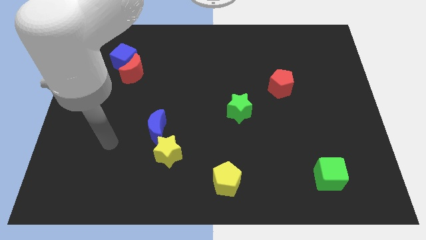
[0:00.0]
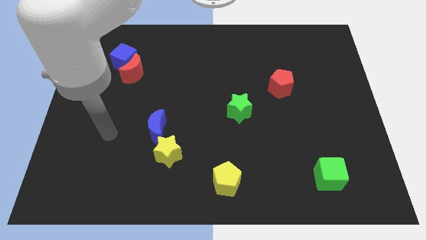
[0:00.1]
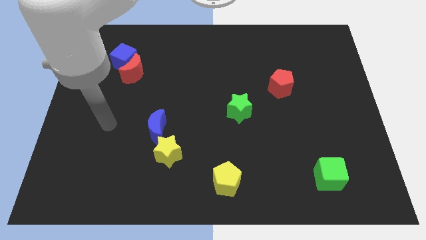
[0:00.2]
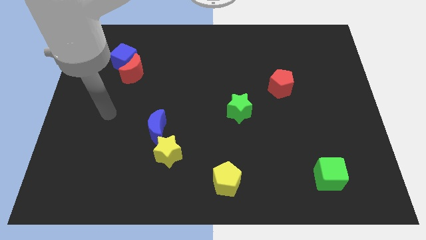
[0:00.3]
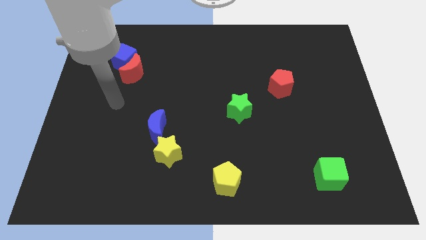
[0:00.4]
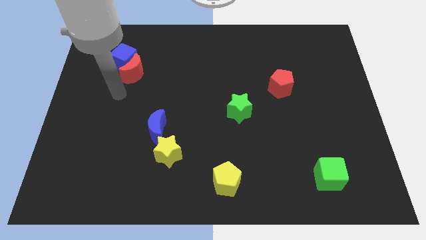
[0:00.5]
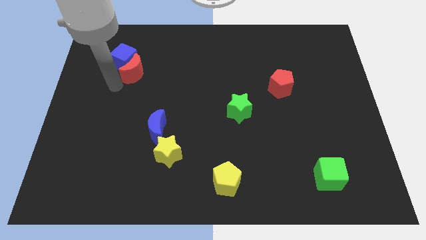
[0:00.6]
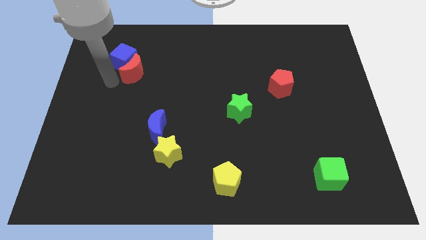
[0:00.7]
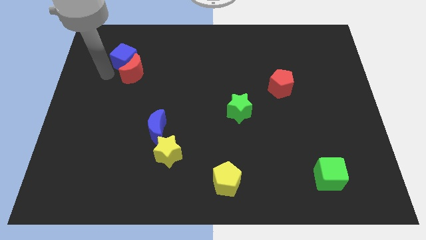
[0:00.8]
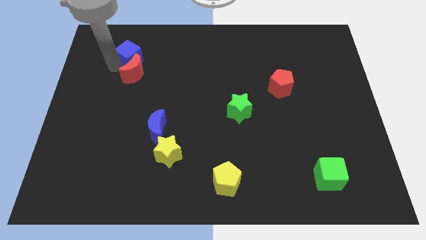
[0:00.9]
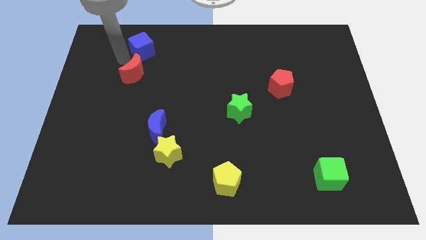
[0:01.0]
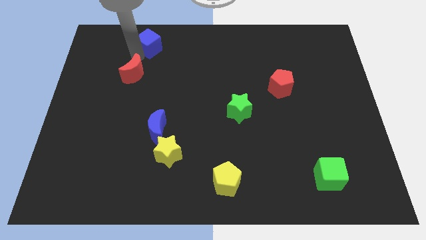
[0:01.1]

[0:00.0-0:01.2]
separate the red moon from the blue cube

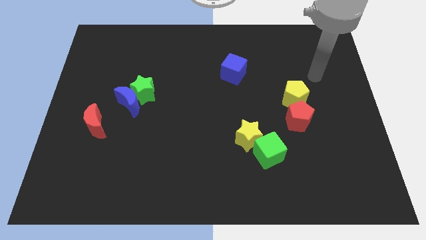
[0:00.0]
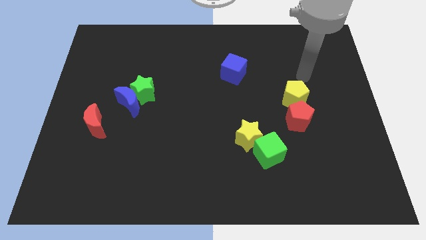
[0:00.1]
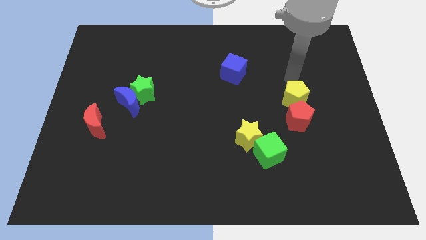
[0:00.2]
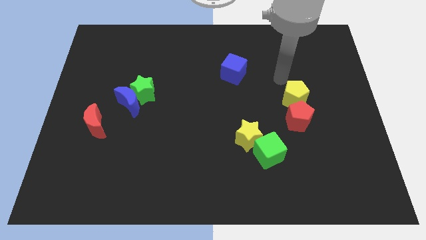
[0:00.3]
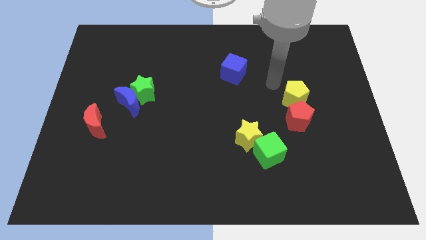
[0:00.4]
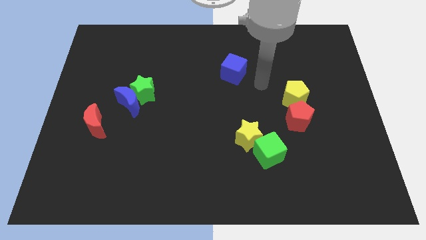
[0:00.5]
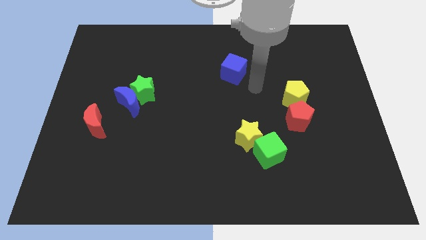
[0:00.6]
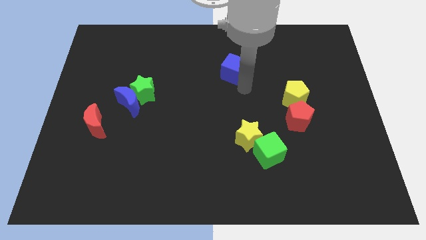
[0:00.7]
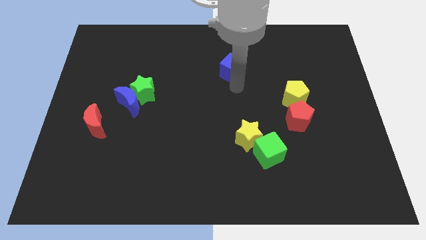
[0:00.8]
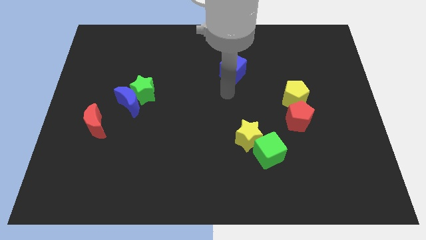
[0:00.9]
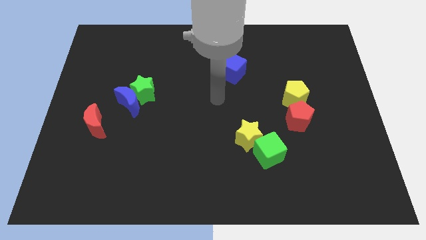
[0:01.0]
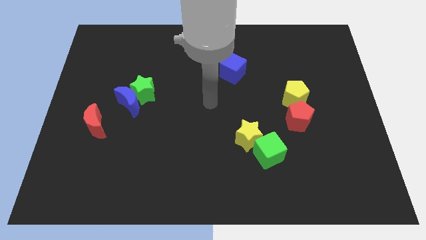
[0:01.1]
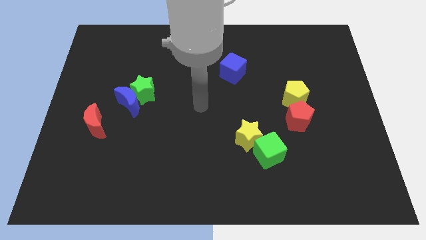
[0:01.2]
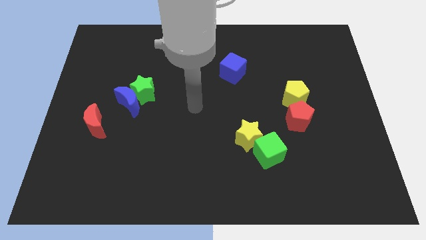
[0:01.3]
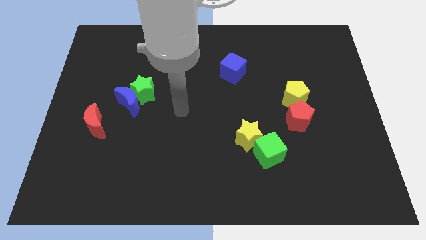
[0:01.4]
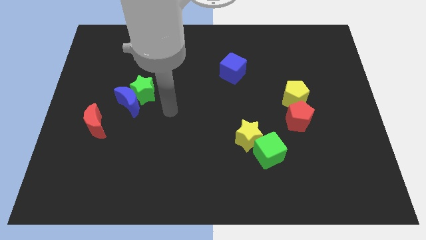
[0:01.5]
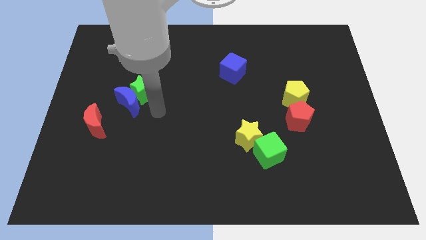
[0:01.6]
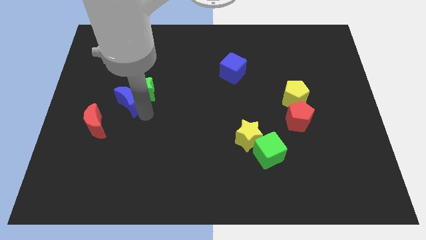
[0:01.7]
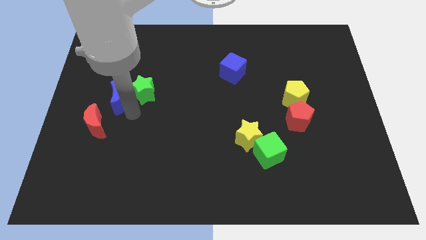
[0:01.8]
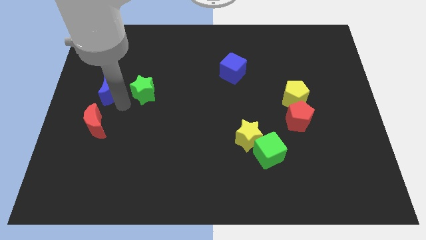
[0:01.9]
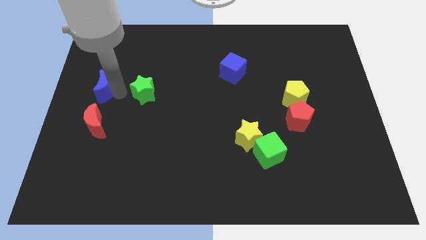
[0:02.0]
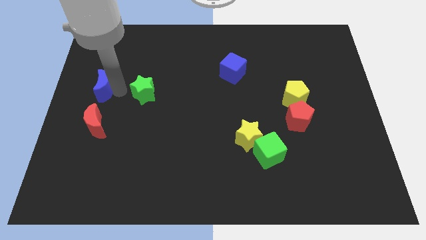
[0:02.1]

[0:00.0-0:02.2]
separate the green star from the blue moon

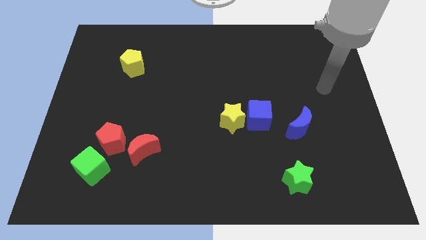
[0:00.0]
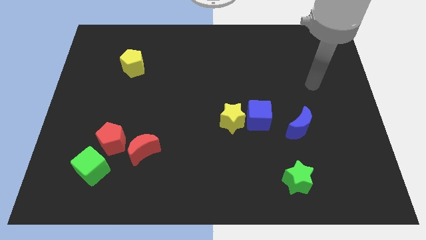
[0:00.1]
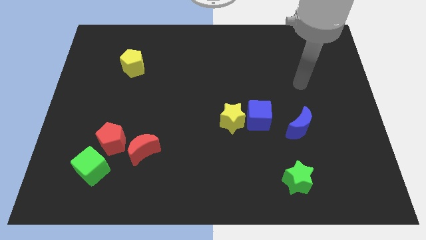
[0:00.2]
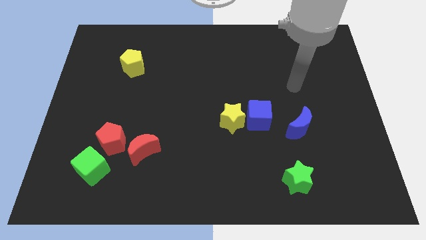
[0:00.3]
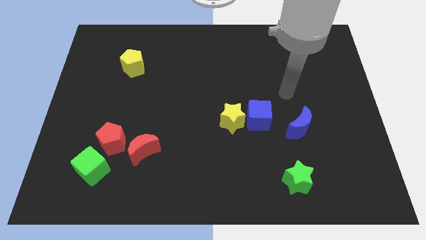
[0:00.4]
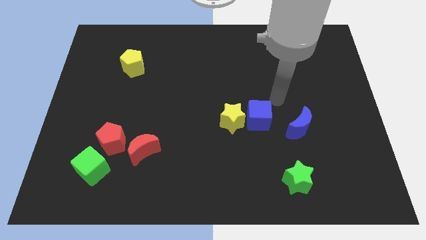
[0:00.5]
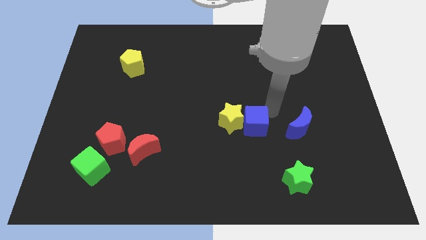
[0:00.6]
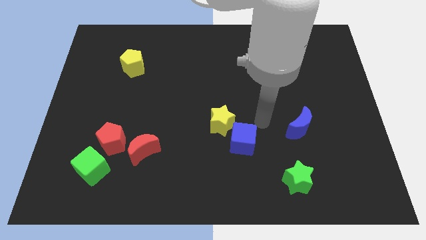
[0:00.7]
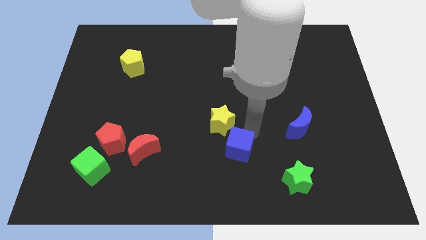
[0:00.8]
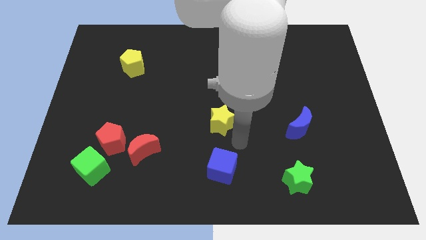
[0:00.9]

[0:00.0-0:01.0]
pull the yellow star apart from the blue cube

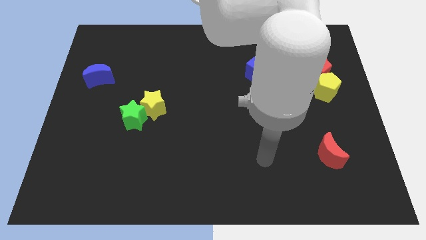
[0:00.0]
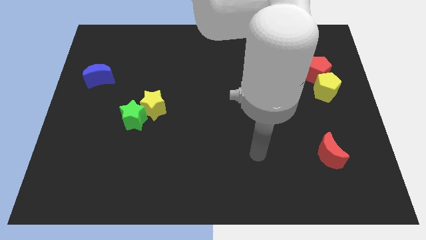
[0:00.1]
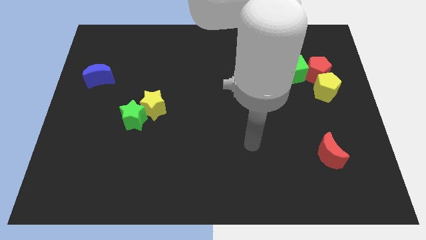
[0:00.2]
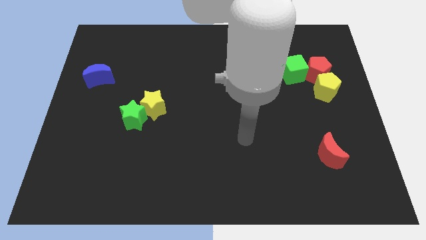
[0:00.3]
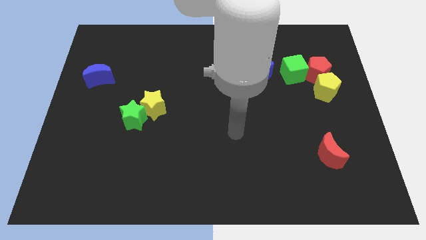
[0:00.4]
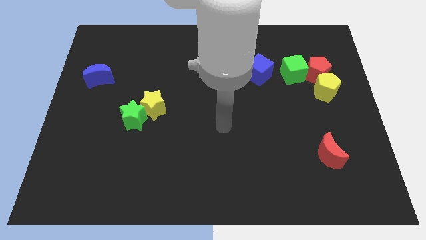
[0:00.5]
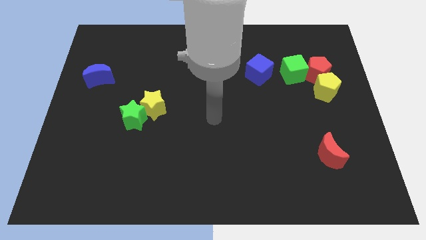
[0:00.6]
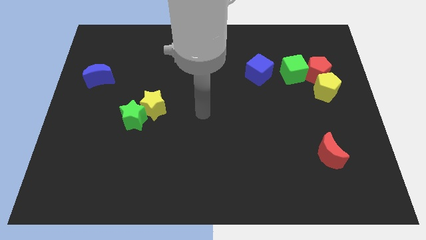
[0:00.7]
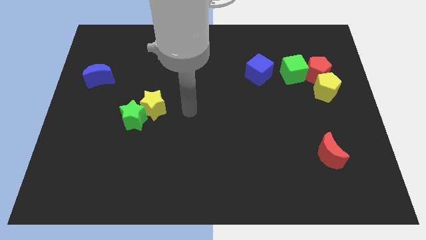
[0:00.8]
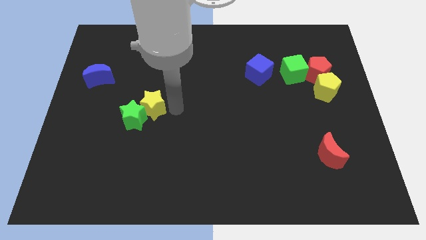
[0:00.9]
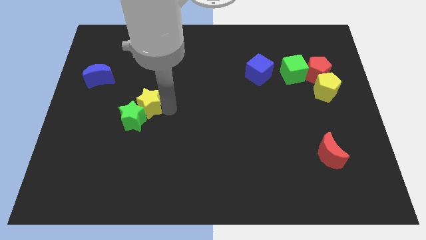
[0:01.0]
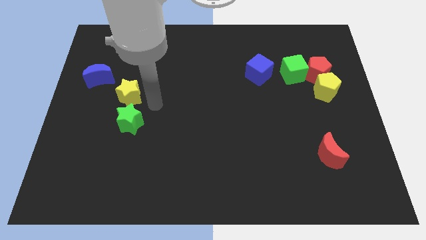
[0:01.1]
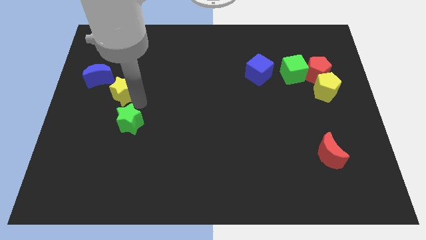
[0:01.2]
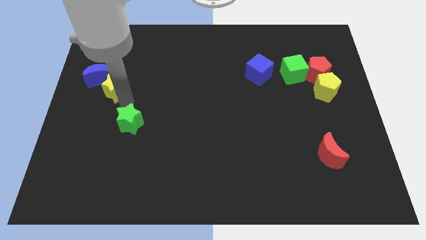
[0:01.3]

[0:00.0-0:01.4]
separate the green star from the yellow star

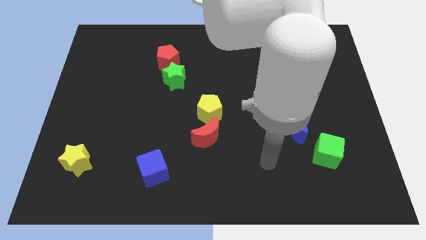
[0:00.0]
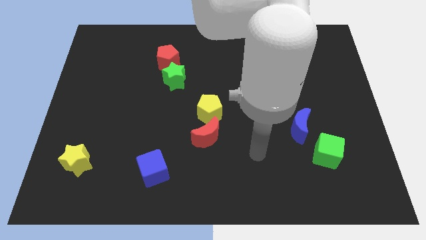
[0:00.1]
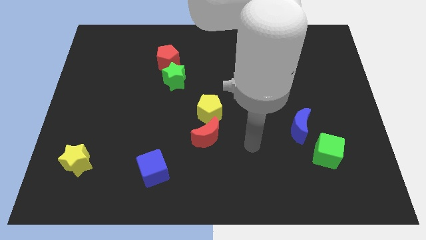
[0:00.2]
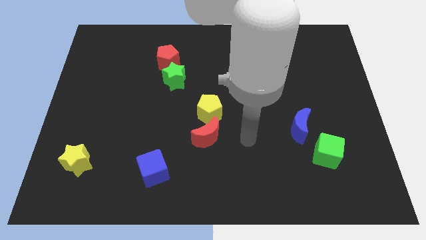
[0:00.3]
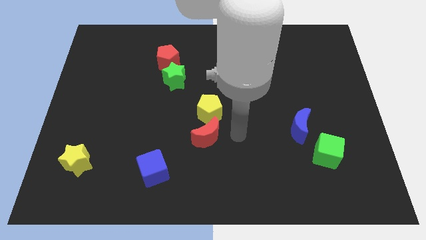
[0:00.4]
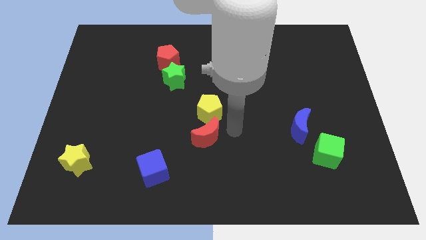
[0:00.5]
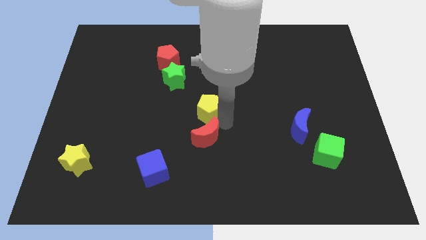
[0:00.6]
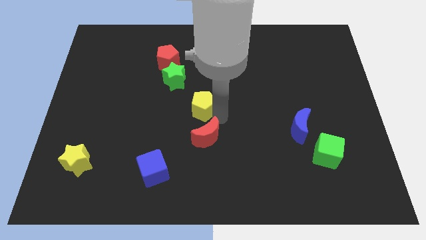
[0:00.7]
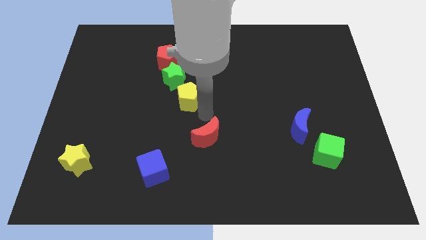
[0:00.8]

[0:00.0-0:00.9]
move the red moon away from the yellow pentagon

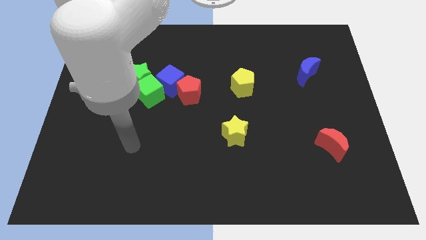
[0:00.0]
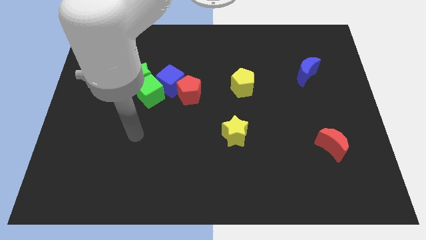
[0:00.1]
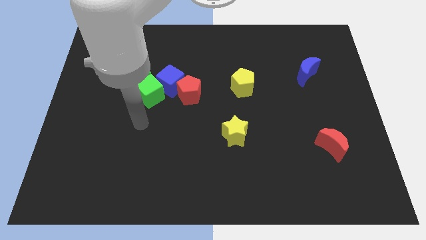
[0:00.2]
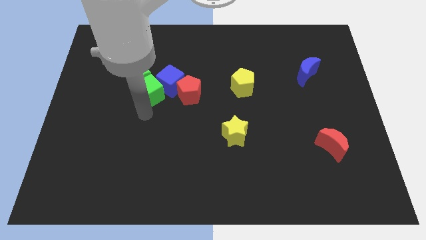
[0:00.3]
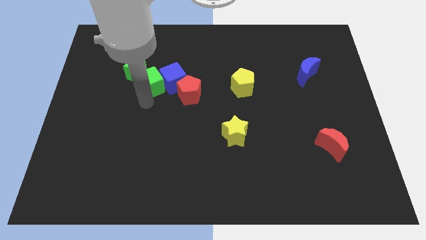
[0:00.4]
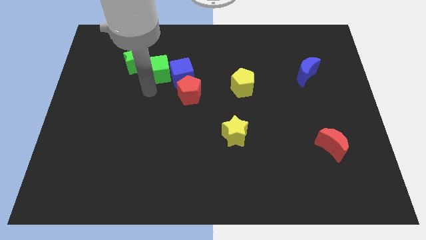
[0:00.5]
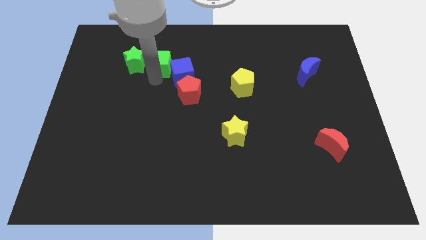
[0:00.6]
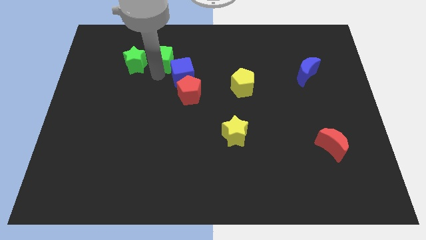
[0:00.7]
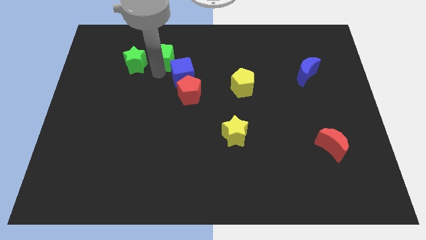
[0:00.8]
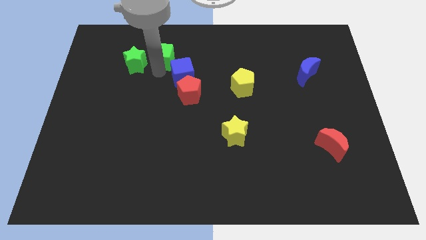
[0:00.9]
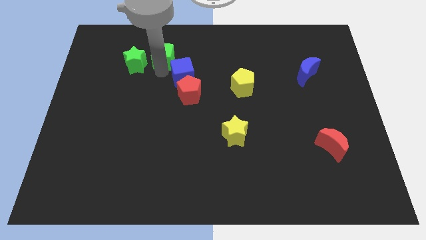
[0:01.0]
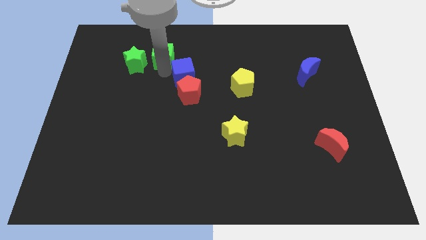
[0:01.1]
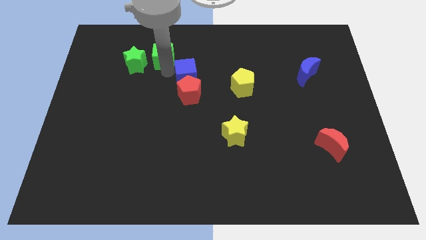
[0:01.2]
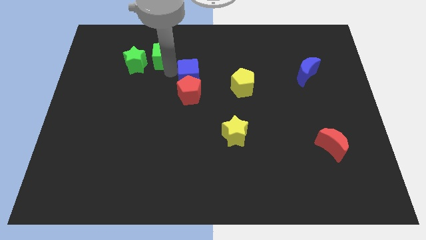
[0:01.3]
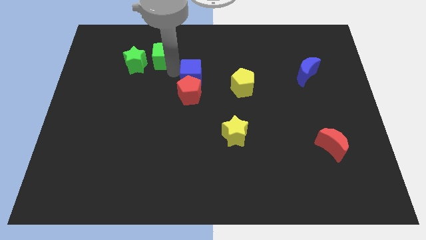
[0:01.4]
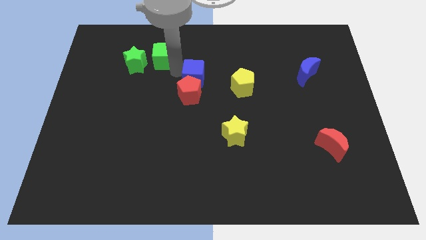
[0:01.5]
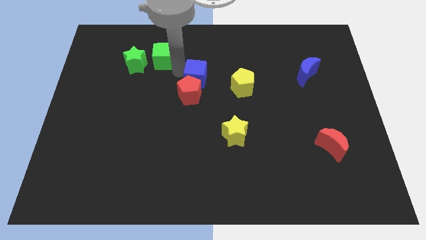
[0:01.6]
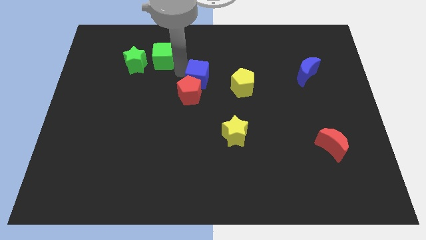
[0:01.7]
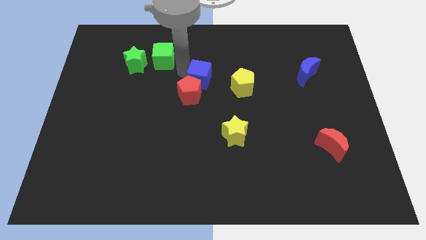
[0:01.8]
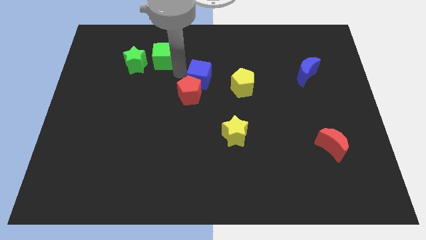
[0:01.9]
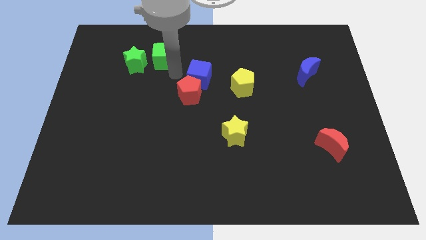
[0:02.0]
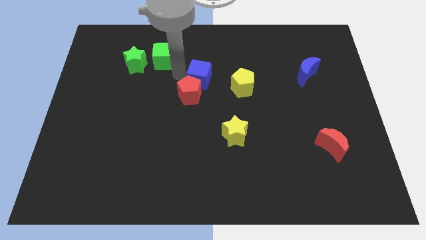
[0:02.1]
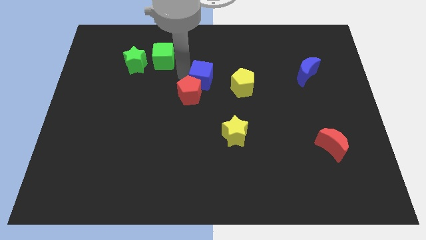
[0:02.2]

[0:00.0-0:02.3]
separate the blue cube from the clump

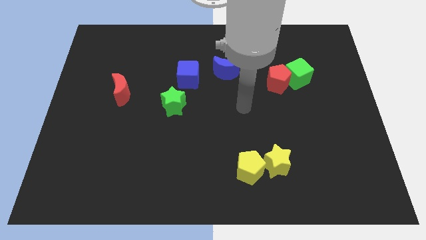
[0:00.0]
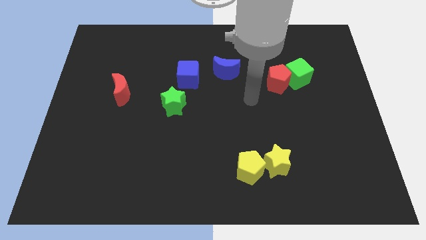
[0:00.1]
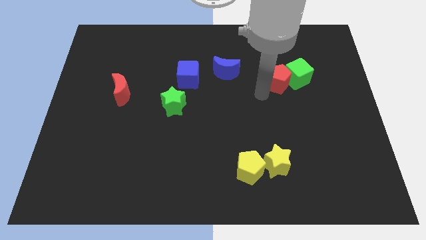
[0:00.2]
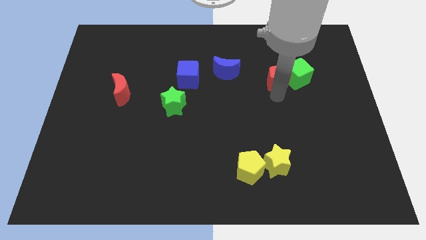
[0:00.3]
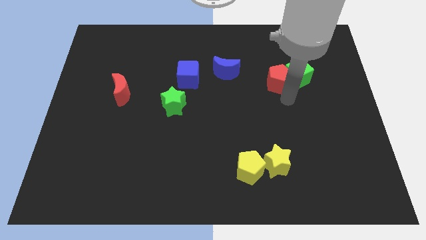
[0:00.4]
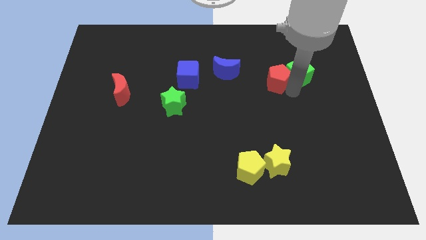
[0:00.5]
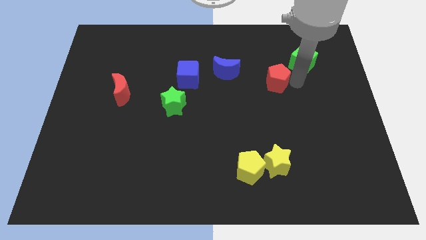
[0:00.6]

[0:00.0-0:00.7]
move the red pentagon away from the green cube
